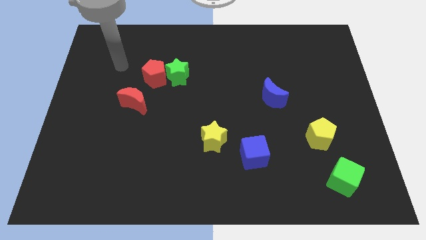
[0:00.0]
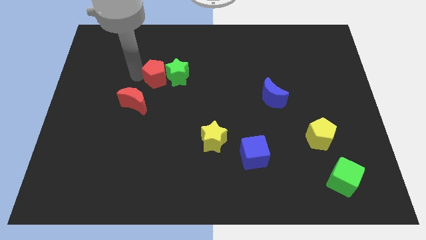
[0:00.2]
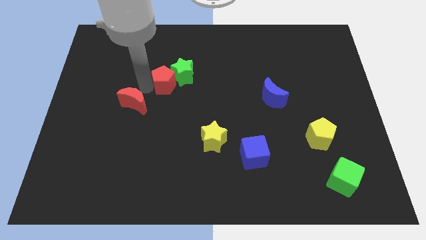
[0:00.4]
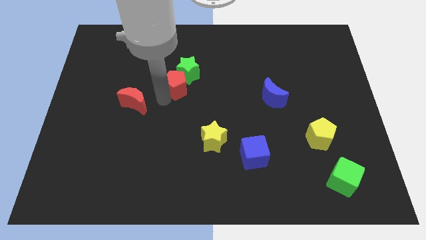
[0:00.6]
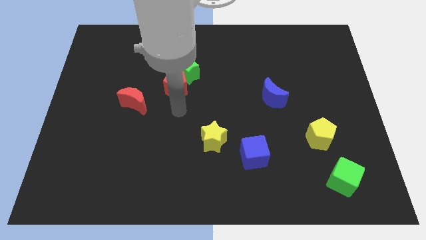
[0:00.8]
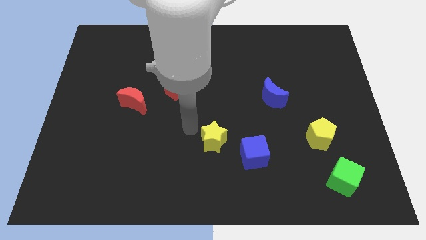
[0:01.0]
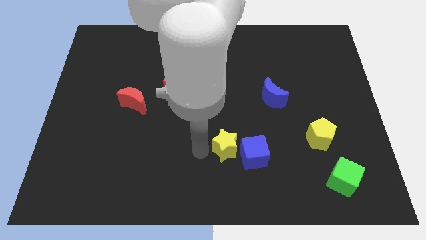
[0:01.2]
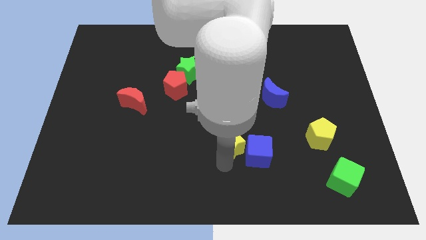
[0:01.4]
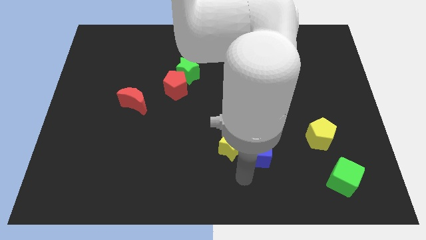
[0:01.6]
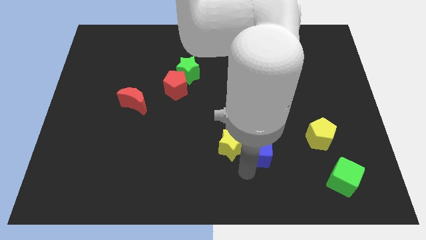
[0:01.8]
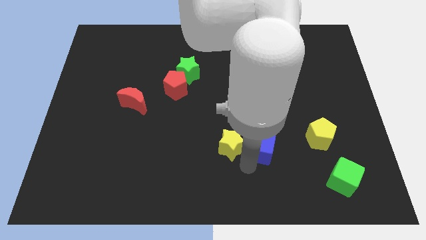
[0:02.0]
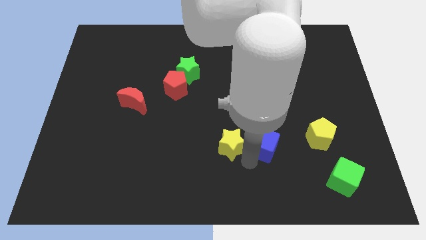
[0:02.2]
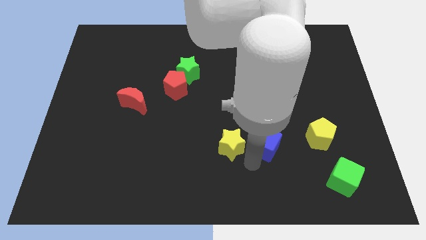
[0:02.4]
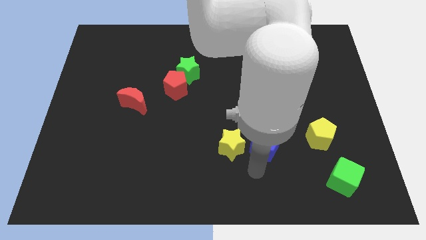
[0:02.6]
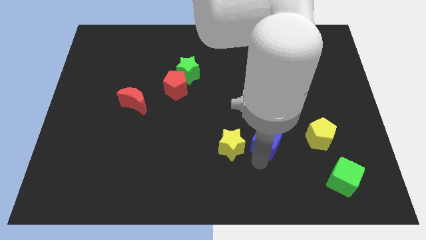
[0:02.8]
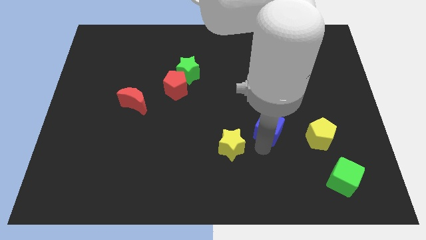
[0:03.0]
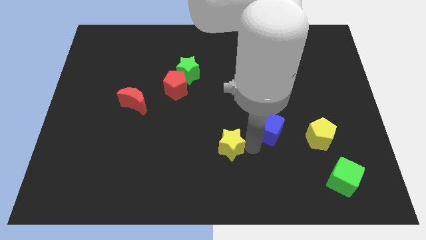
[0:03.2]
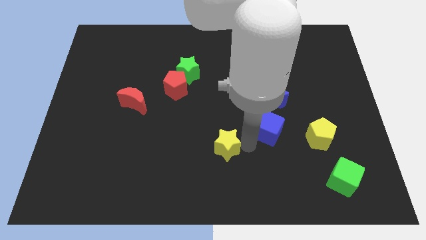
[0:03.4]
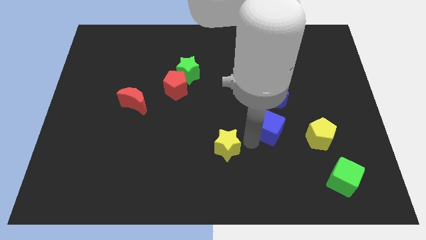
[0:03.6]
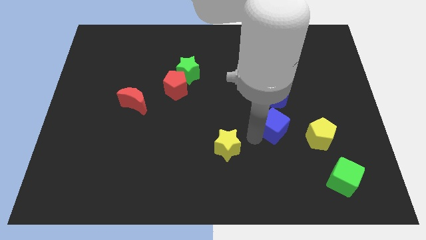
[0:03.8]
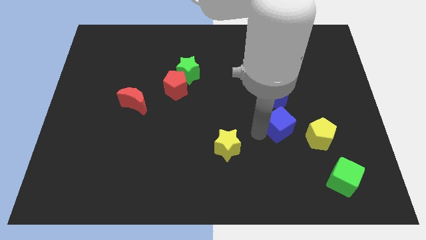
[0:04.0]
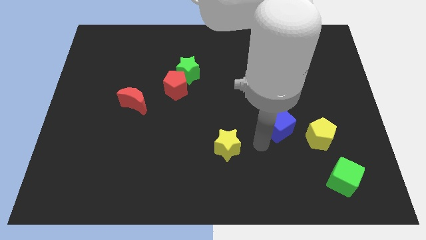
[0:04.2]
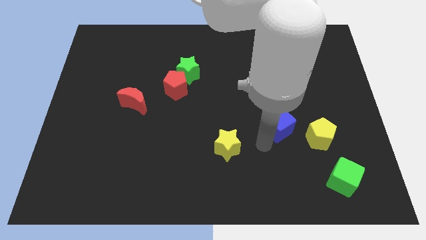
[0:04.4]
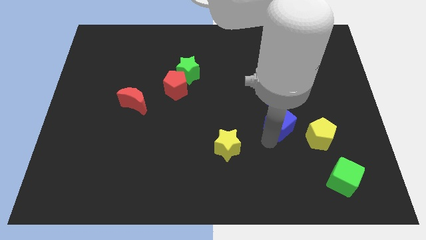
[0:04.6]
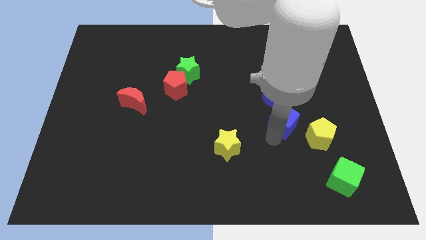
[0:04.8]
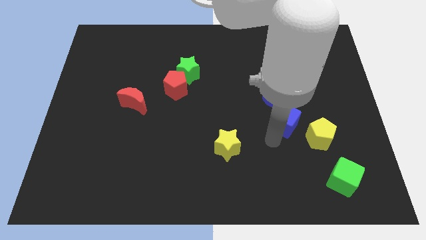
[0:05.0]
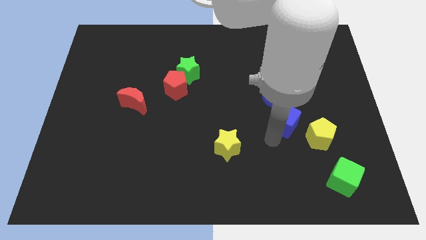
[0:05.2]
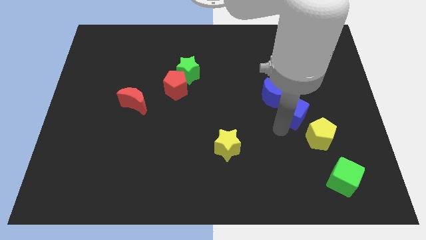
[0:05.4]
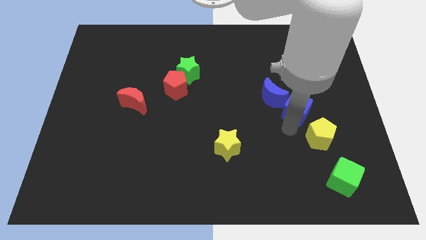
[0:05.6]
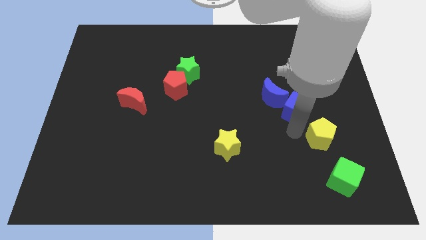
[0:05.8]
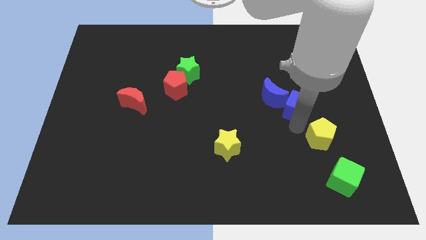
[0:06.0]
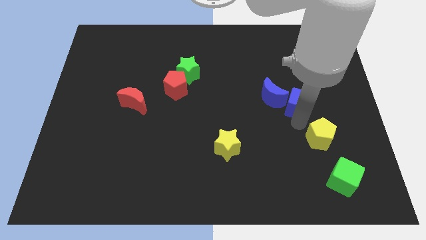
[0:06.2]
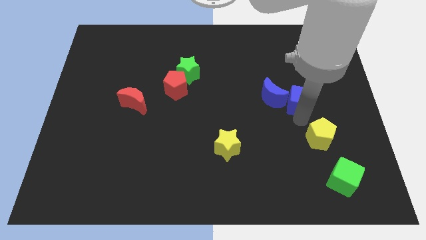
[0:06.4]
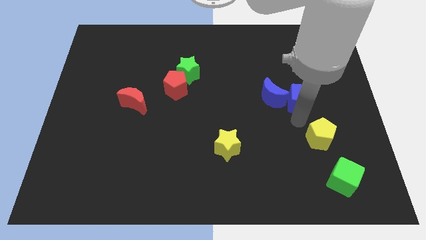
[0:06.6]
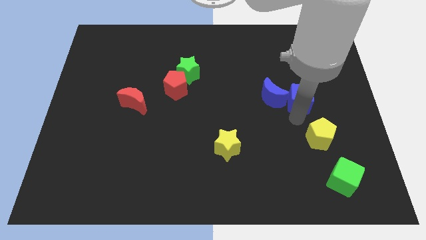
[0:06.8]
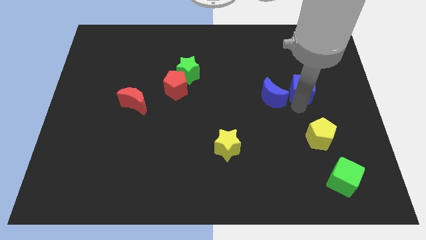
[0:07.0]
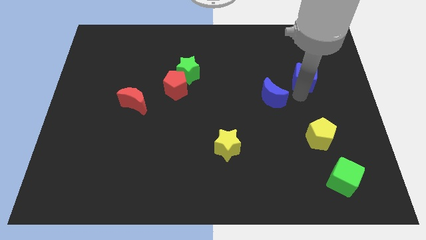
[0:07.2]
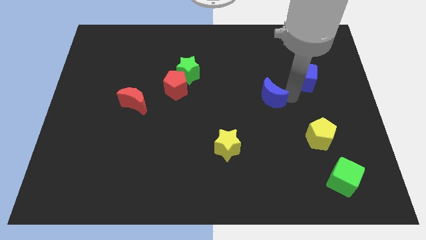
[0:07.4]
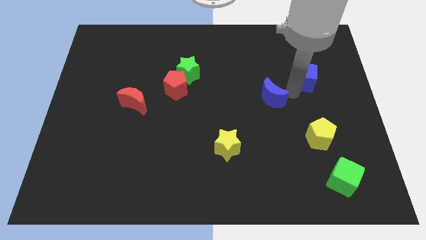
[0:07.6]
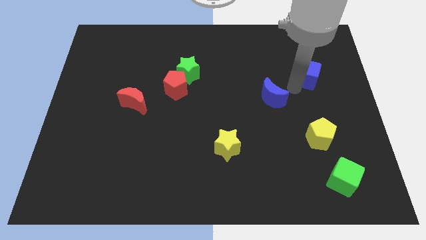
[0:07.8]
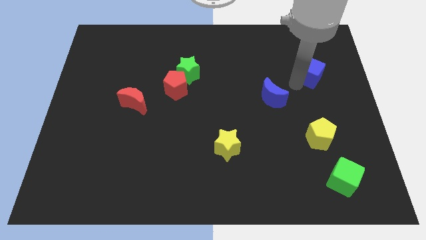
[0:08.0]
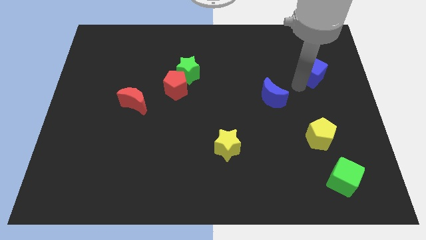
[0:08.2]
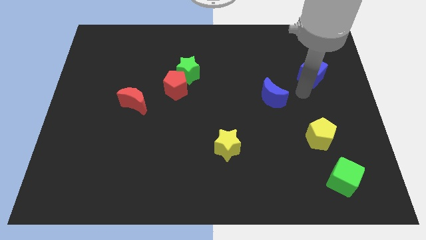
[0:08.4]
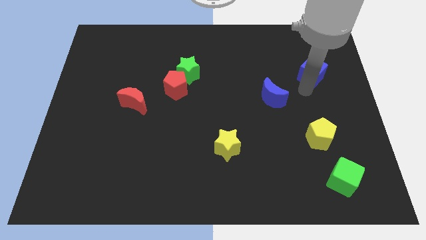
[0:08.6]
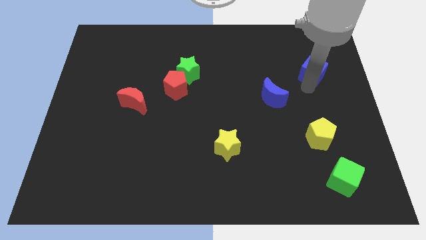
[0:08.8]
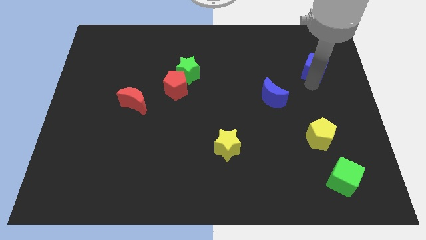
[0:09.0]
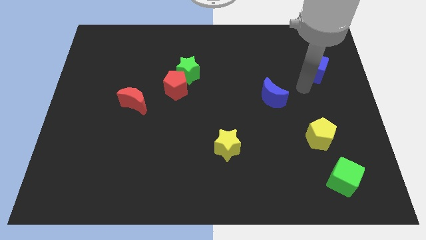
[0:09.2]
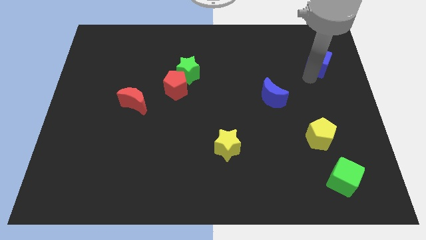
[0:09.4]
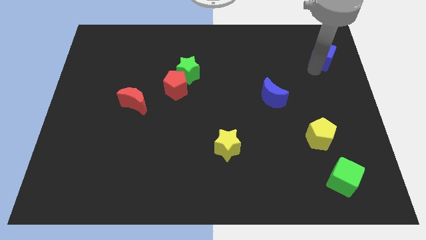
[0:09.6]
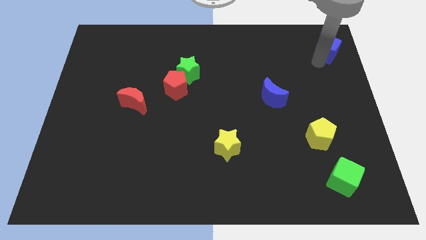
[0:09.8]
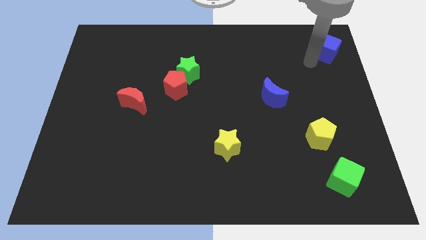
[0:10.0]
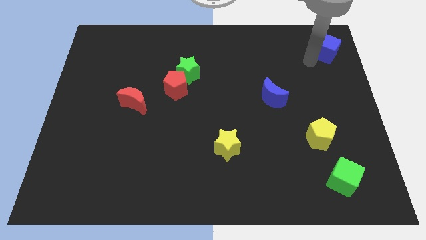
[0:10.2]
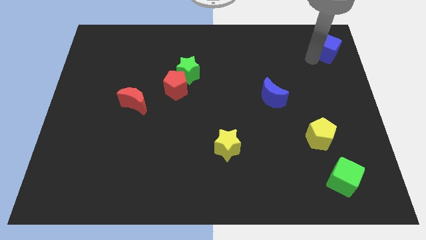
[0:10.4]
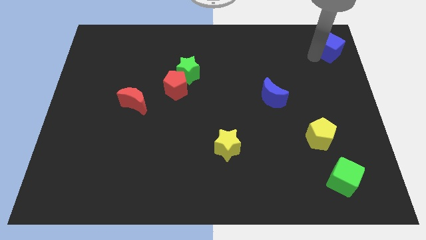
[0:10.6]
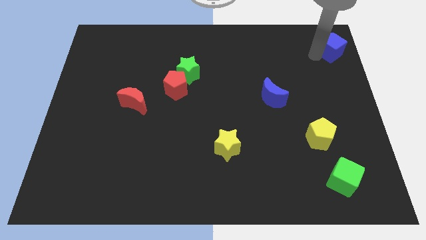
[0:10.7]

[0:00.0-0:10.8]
push the blue cube to the top right
